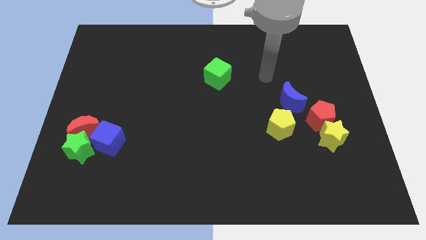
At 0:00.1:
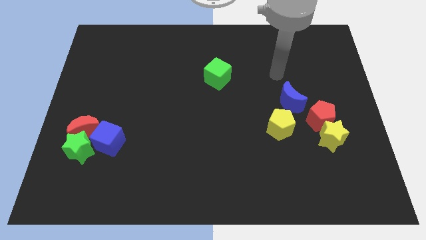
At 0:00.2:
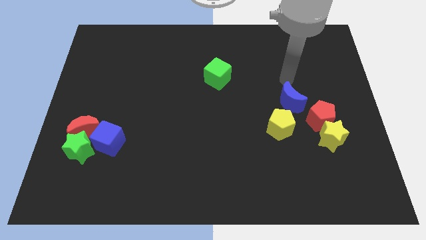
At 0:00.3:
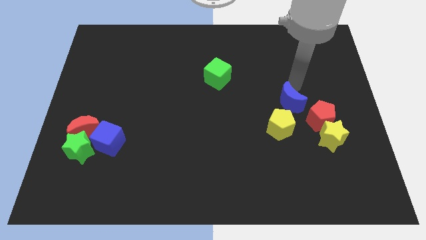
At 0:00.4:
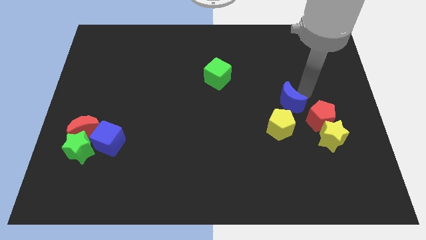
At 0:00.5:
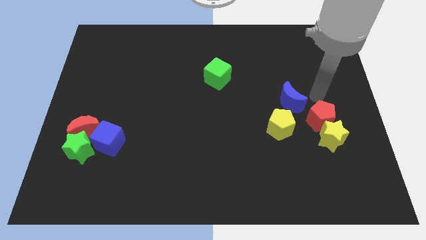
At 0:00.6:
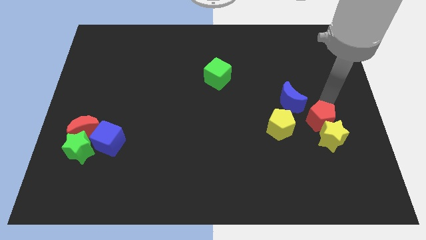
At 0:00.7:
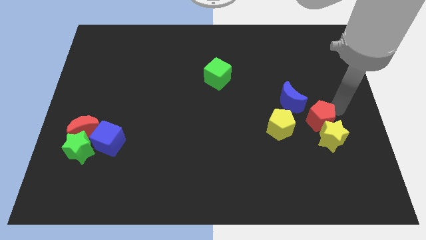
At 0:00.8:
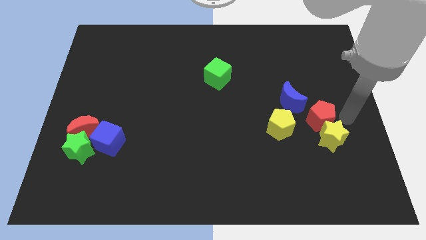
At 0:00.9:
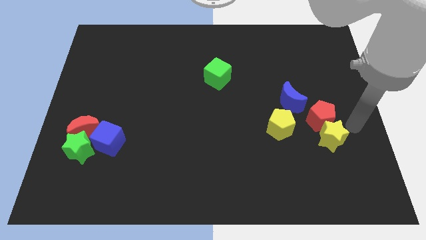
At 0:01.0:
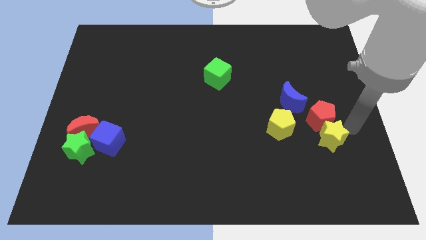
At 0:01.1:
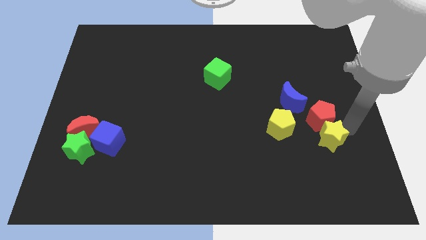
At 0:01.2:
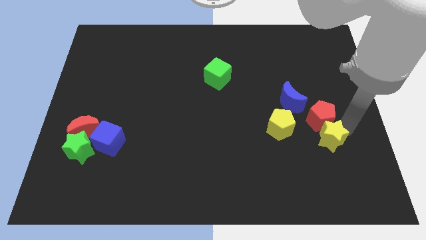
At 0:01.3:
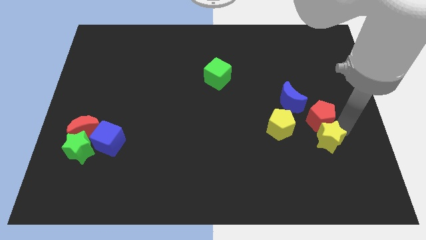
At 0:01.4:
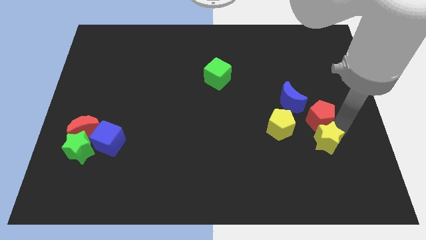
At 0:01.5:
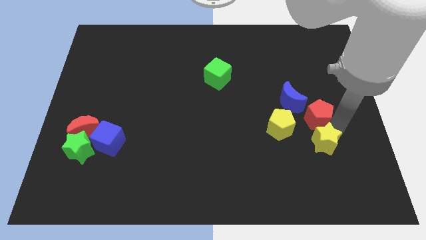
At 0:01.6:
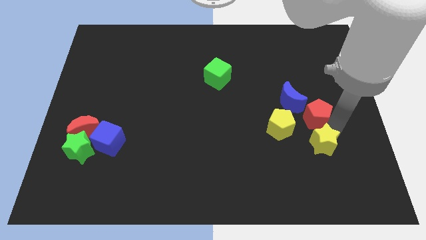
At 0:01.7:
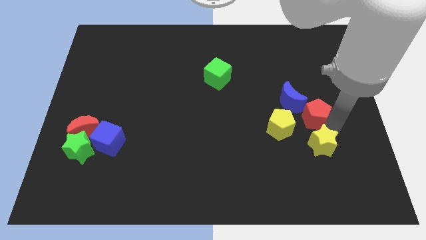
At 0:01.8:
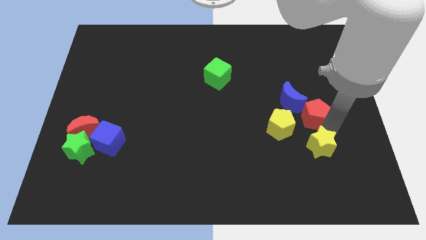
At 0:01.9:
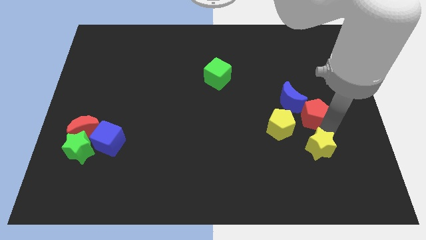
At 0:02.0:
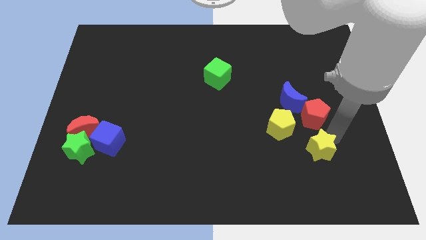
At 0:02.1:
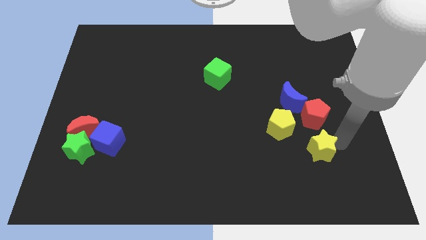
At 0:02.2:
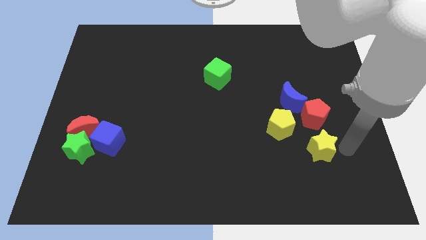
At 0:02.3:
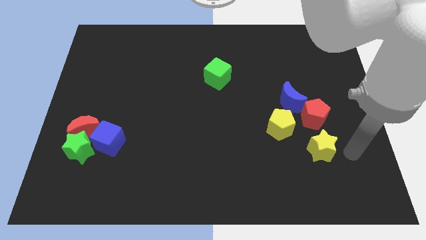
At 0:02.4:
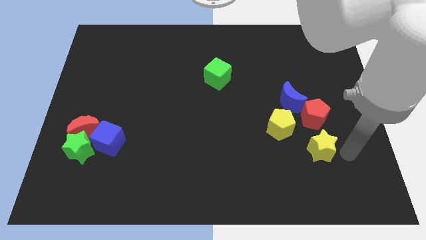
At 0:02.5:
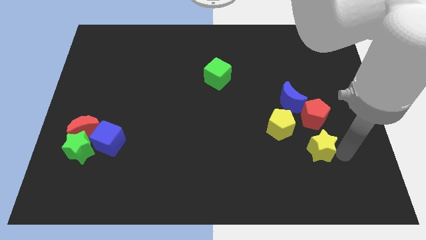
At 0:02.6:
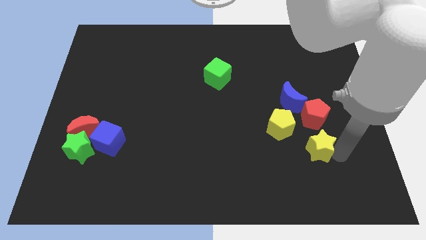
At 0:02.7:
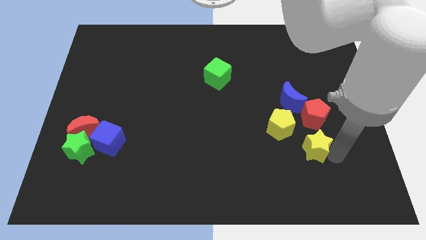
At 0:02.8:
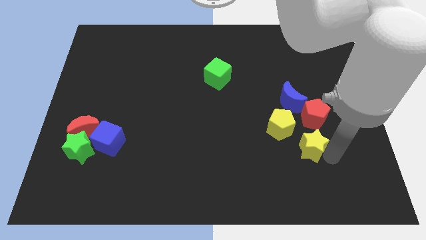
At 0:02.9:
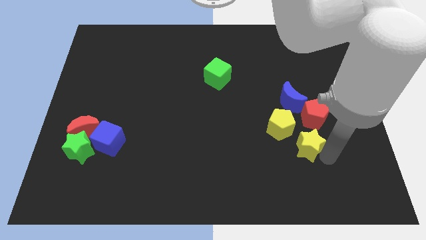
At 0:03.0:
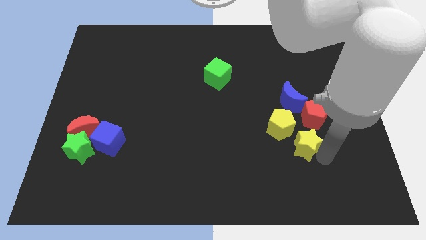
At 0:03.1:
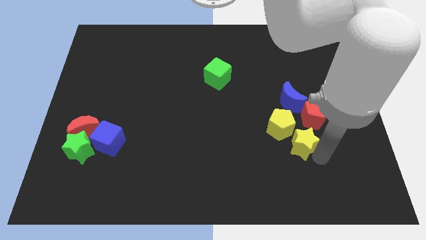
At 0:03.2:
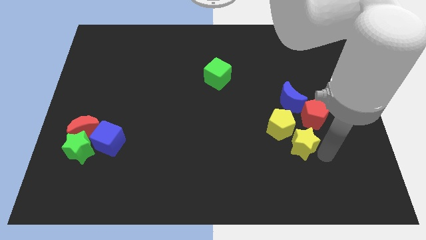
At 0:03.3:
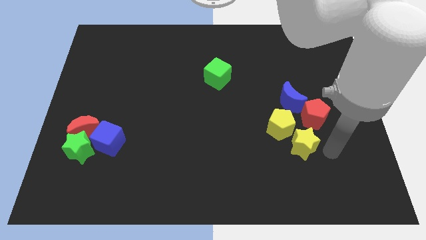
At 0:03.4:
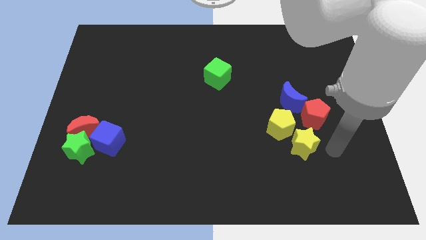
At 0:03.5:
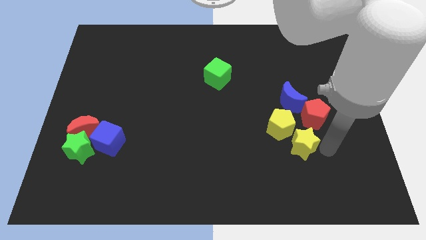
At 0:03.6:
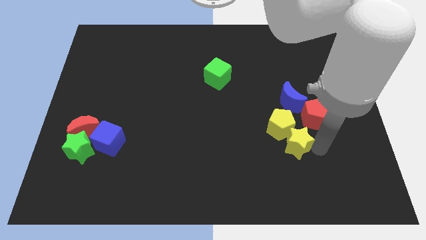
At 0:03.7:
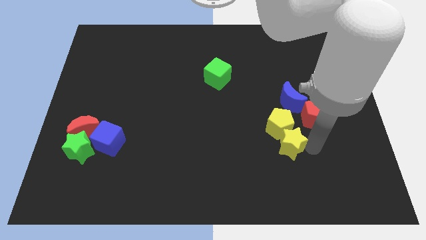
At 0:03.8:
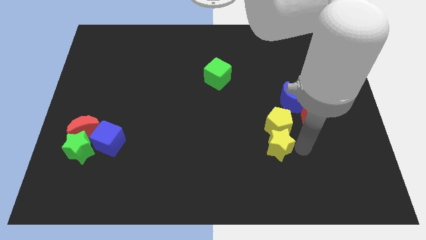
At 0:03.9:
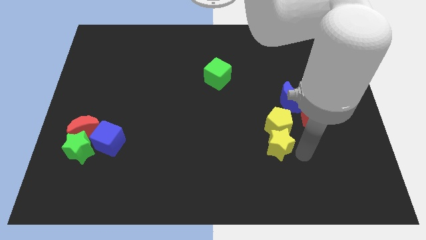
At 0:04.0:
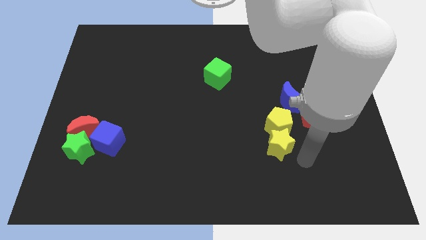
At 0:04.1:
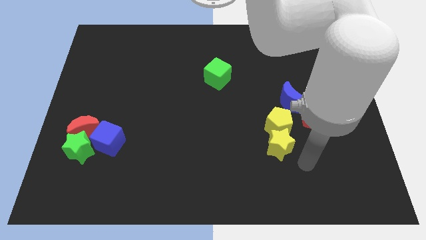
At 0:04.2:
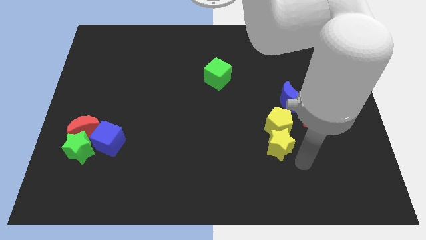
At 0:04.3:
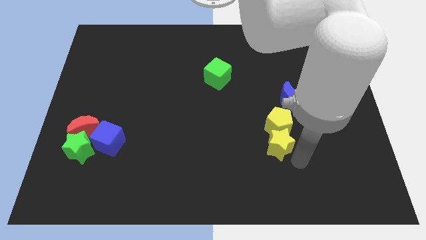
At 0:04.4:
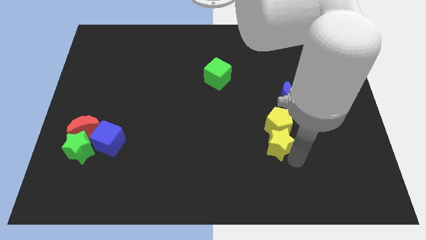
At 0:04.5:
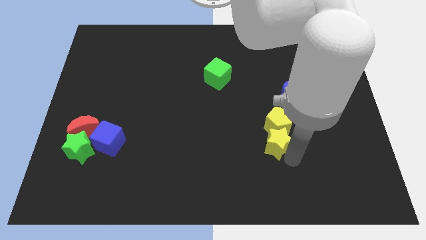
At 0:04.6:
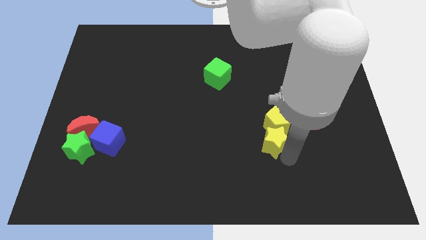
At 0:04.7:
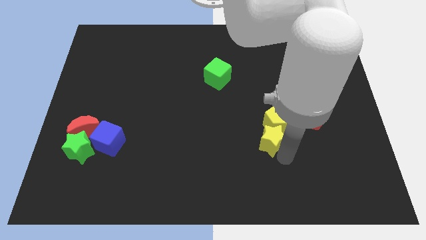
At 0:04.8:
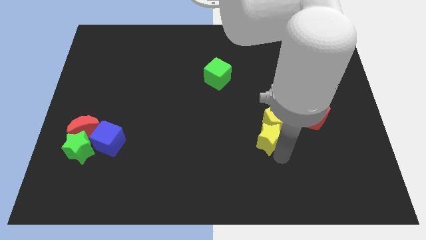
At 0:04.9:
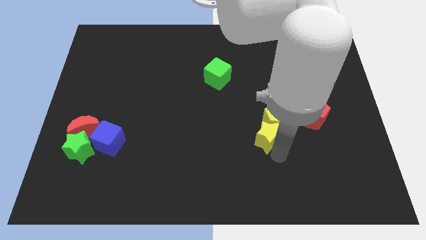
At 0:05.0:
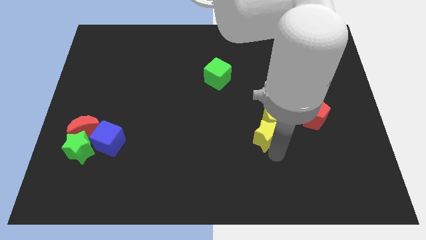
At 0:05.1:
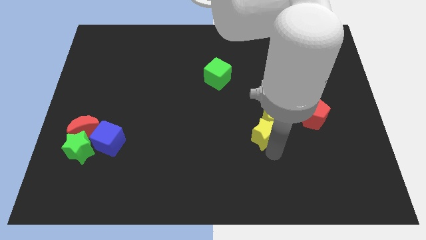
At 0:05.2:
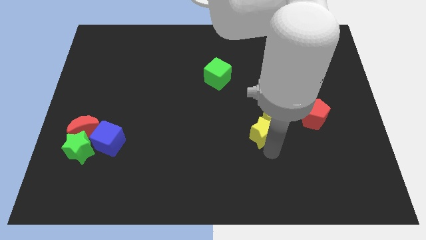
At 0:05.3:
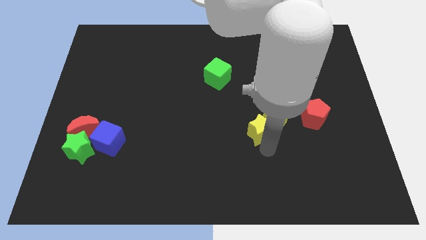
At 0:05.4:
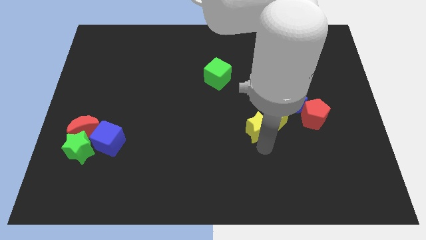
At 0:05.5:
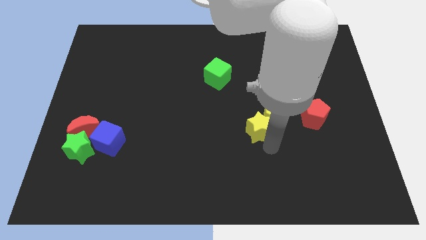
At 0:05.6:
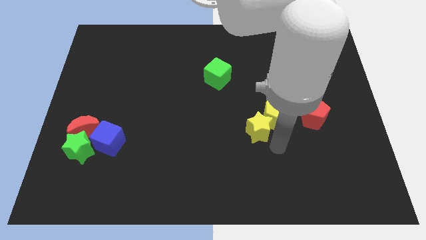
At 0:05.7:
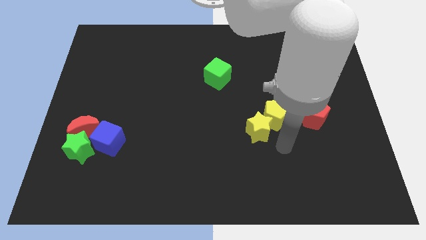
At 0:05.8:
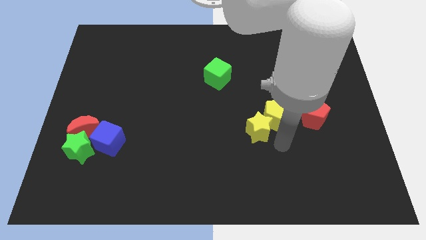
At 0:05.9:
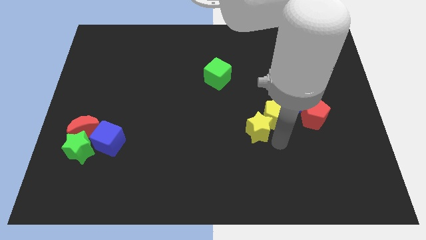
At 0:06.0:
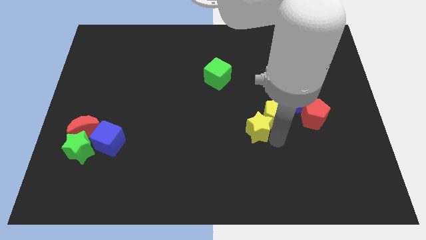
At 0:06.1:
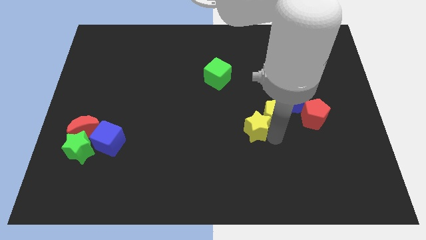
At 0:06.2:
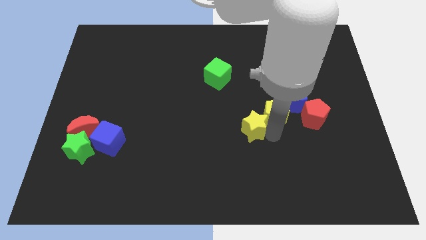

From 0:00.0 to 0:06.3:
move the yellow star to the center
